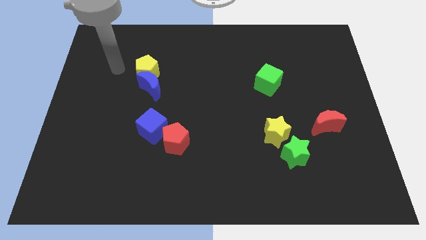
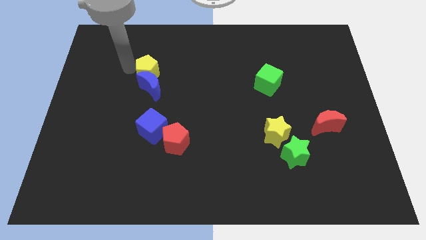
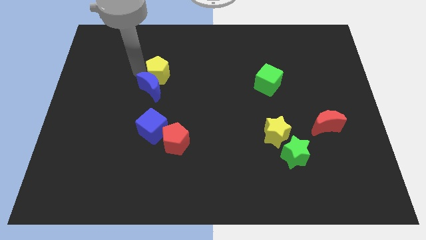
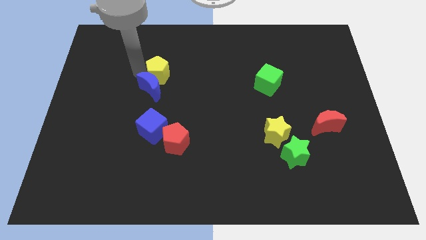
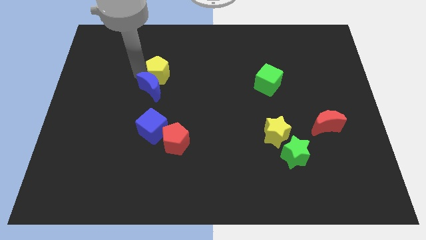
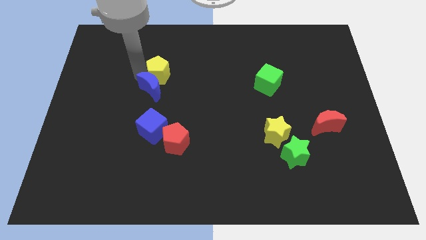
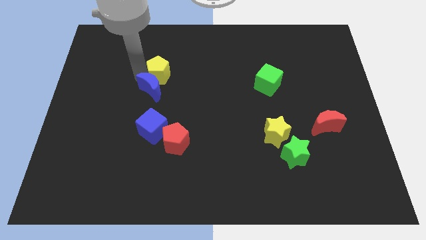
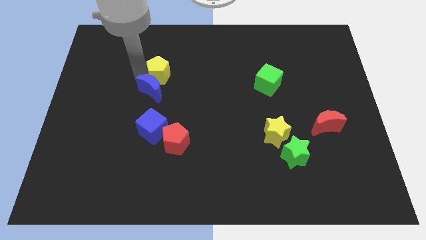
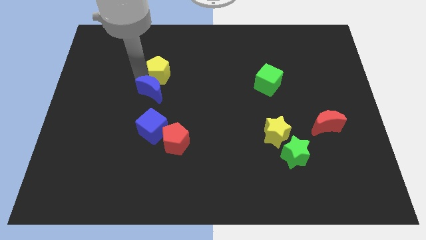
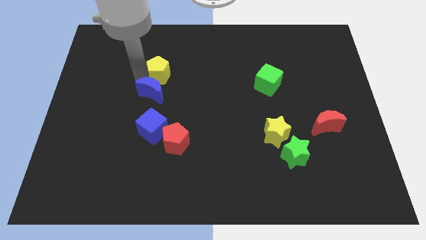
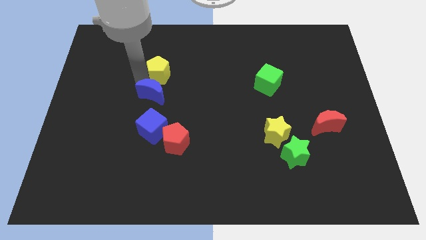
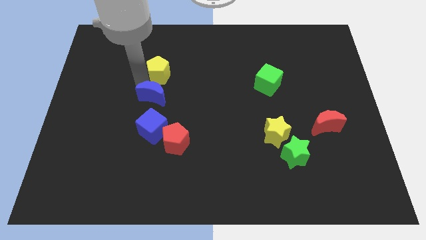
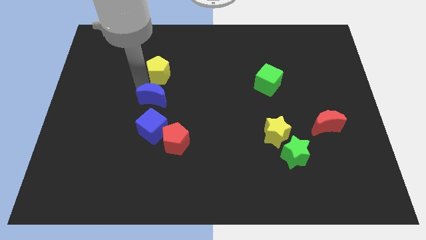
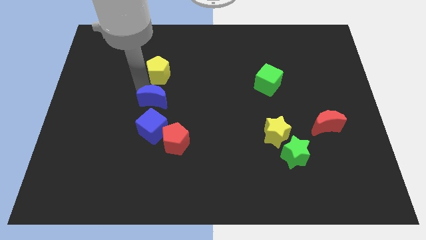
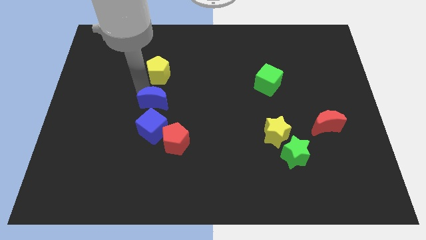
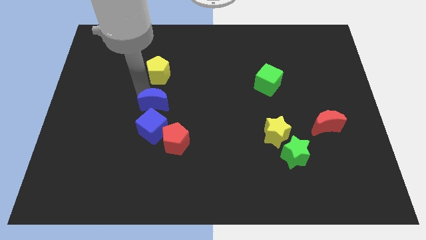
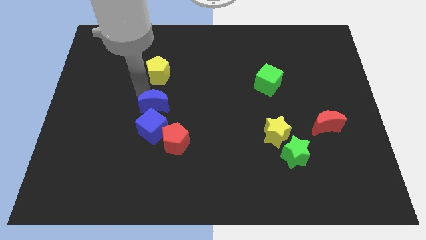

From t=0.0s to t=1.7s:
separate the blue moon from the yellow pentagon

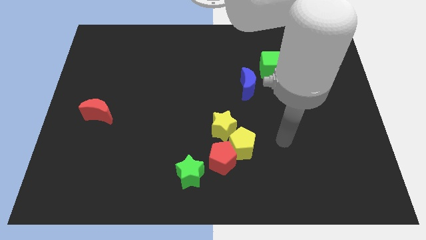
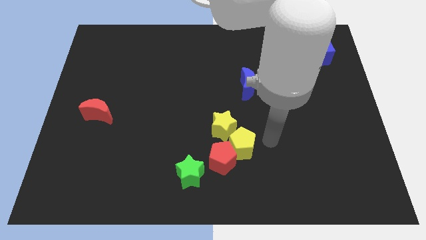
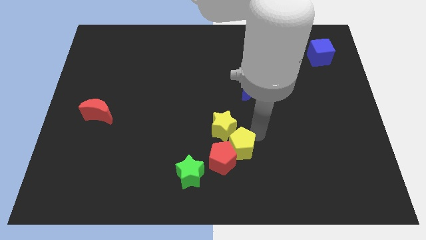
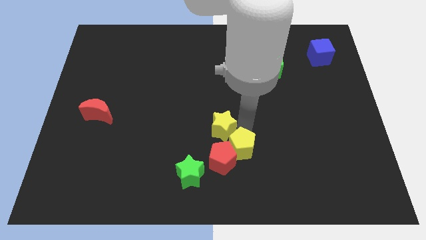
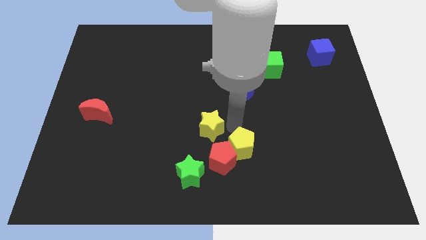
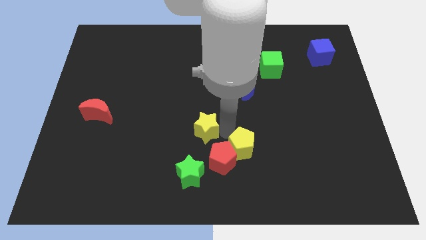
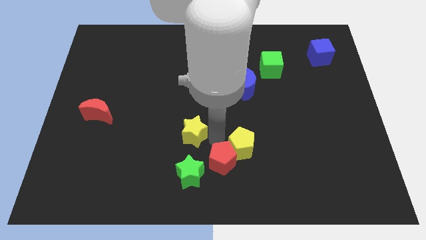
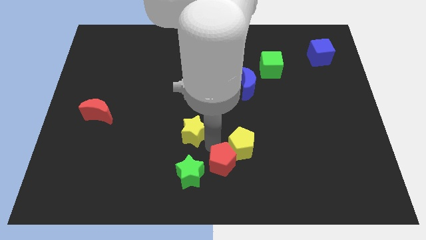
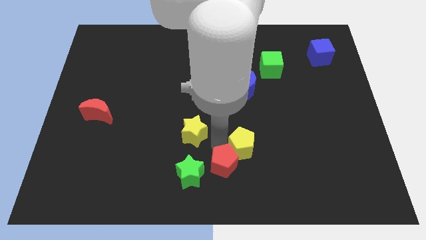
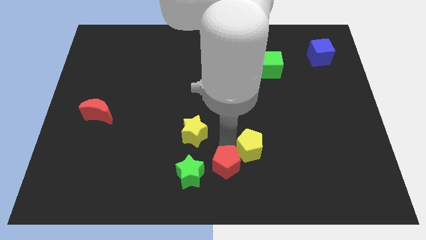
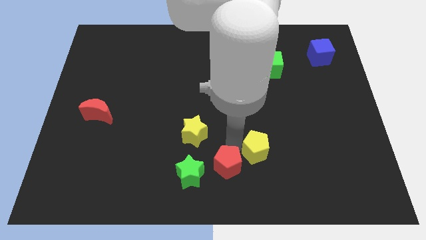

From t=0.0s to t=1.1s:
move the yellow pentagon away from the red pentagon and yellow star

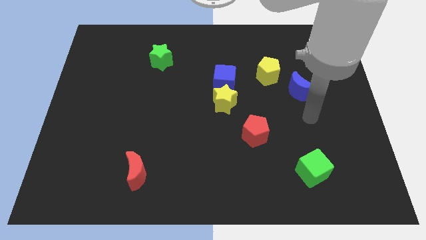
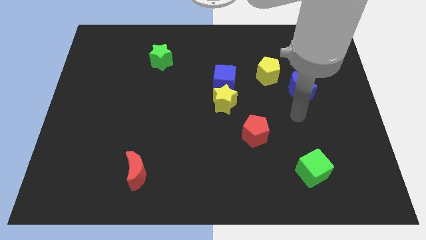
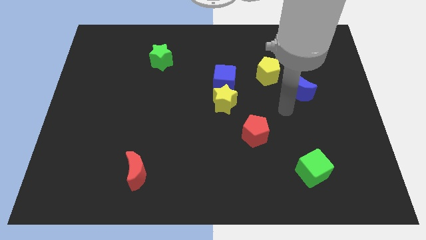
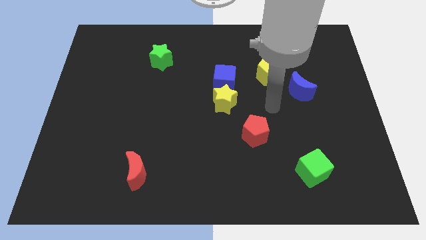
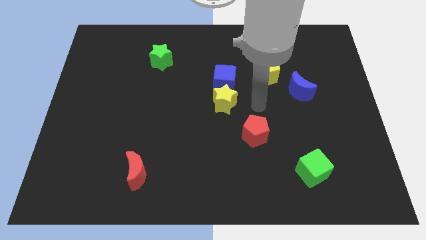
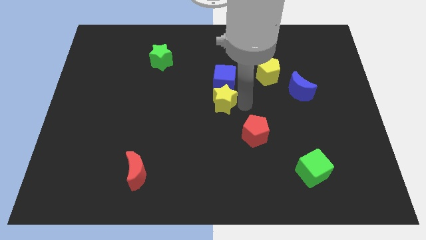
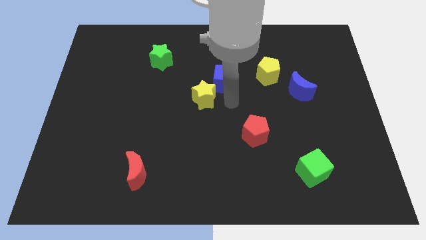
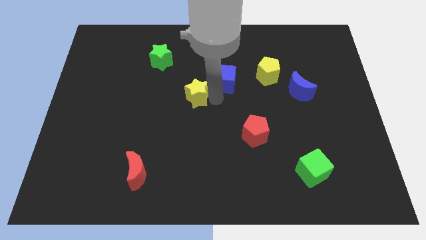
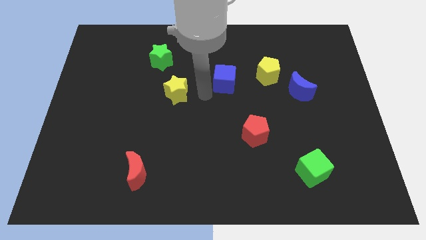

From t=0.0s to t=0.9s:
move the blue cube away from the yellow star

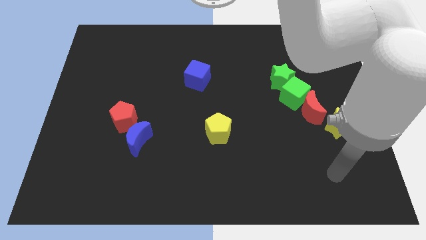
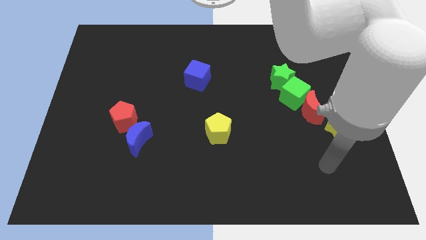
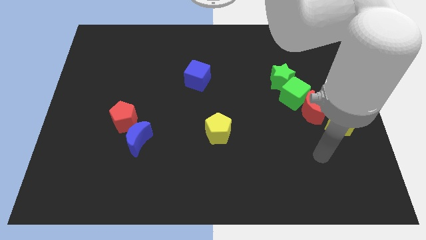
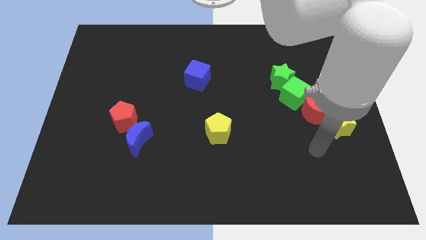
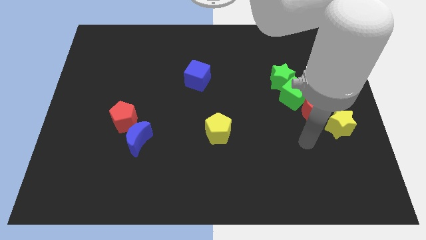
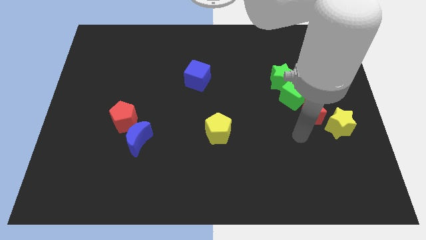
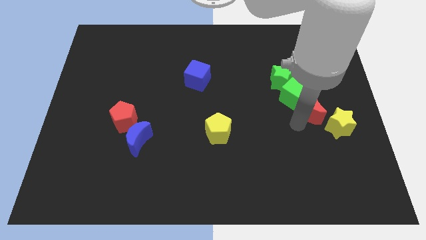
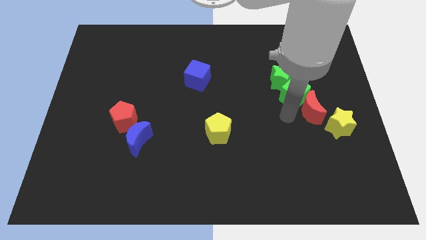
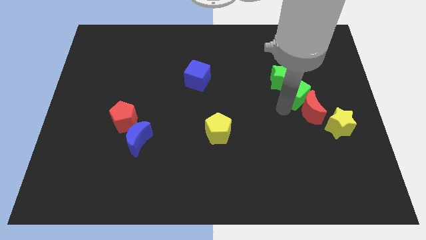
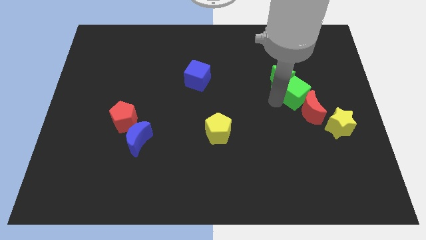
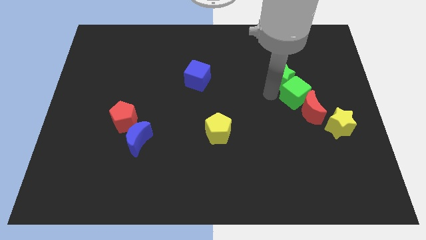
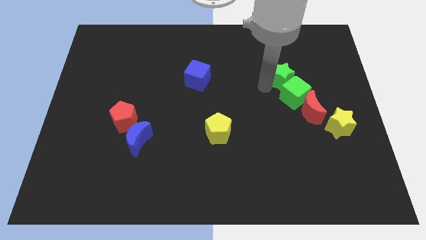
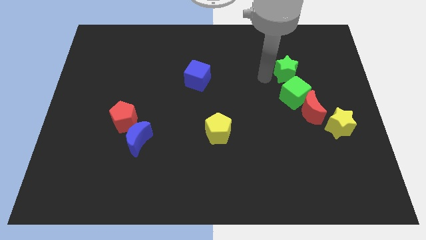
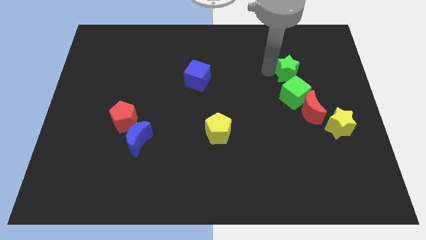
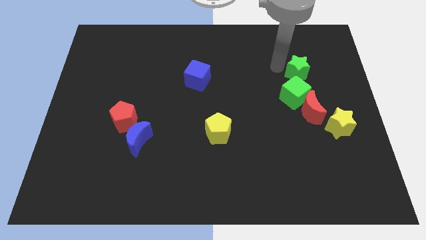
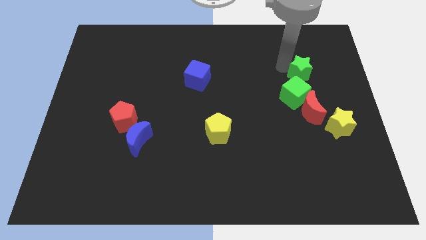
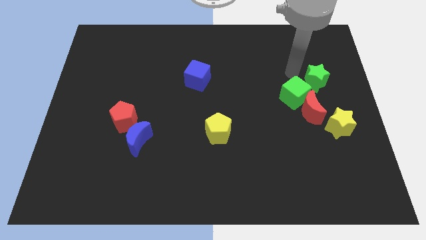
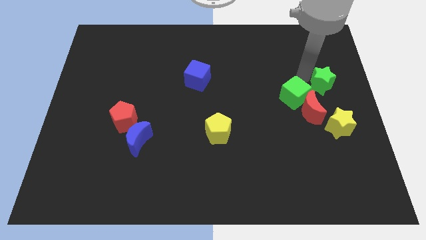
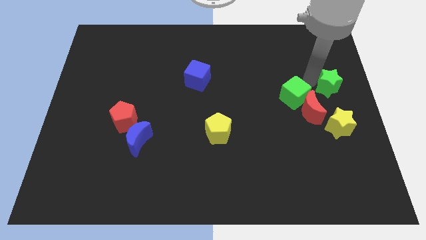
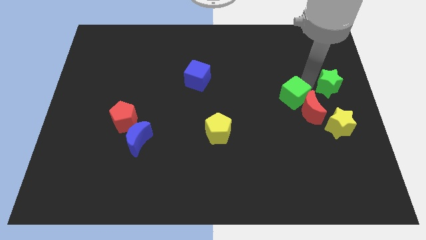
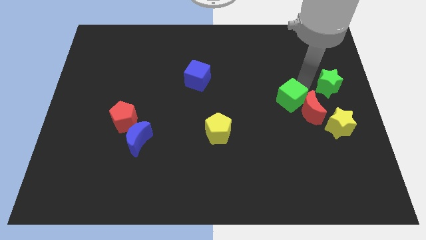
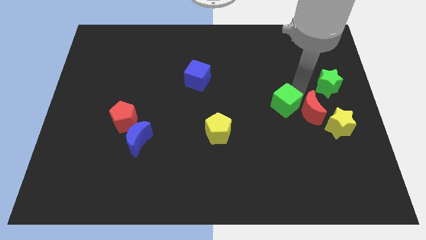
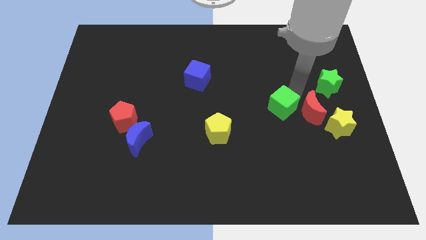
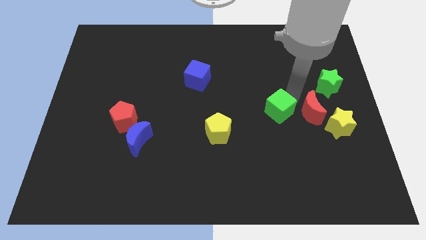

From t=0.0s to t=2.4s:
move the green cube away from the red moon and green star

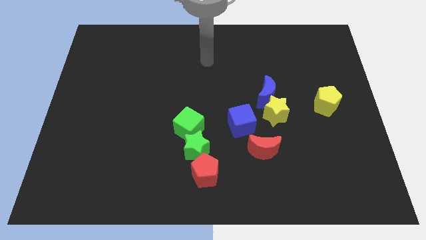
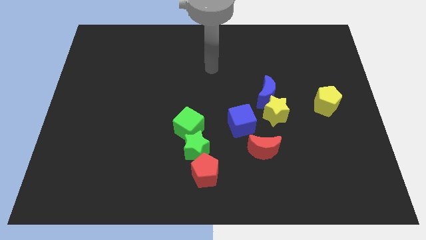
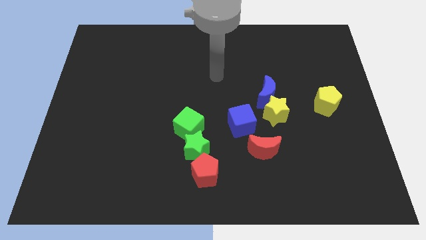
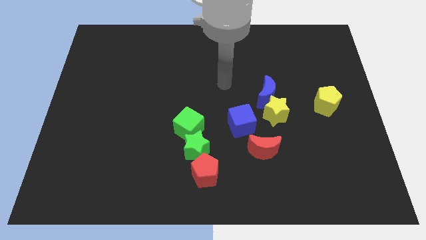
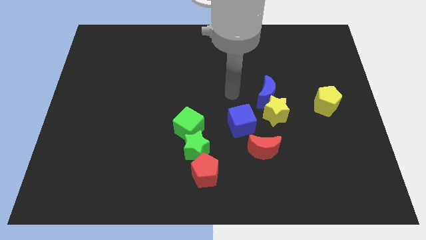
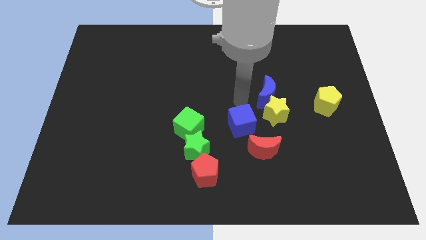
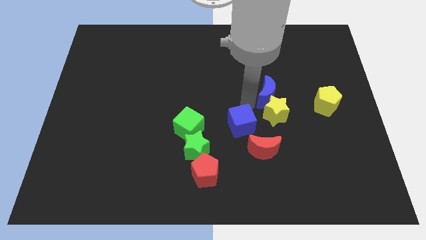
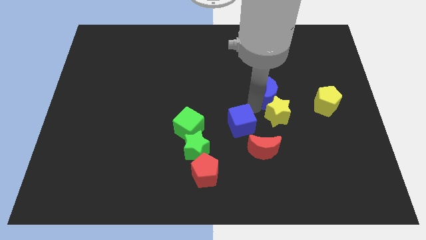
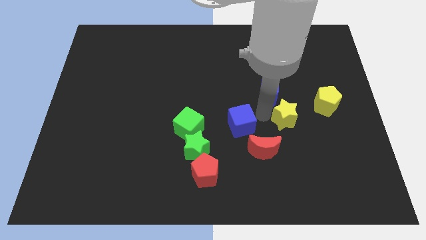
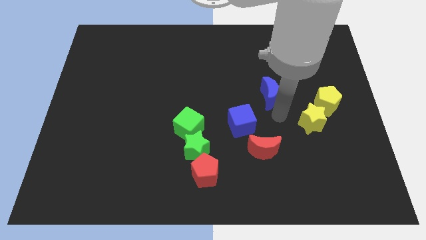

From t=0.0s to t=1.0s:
pull the blue moon apart from the yellow star

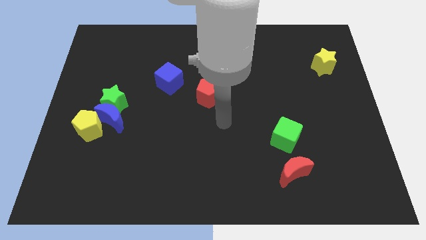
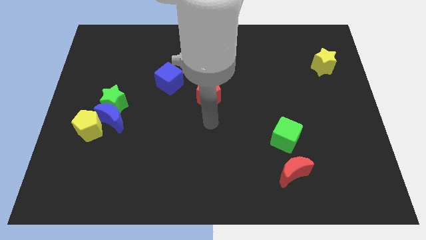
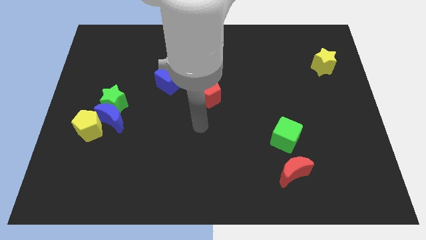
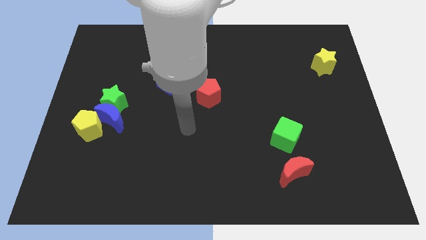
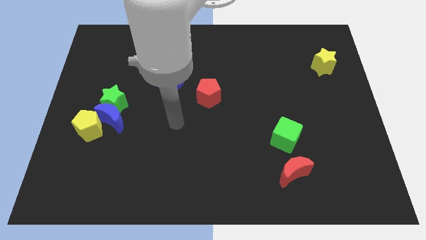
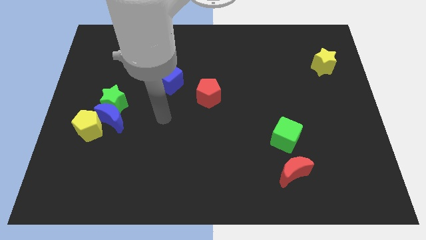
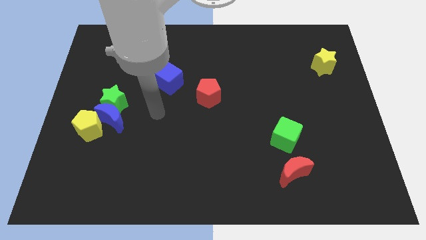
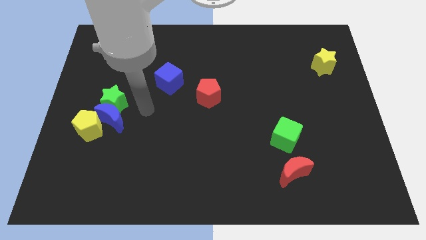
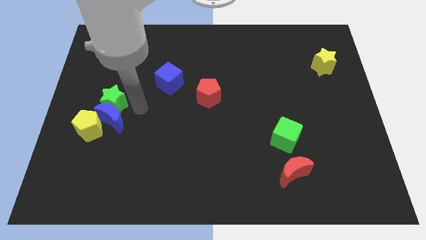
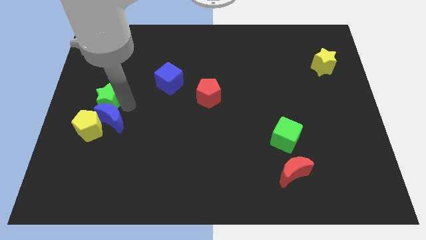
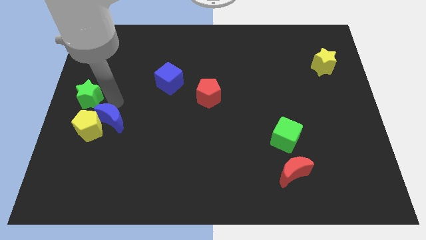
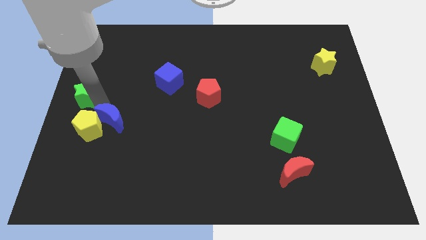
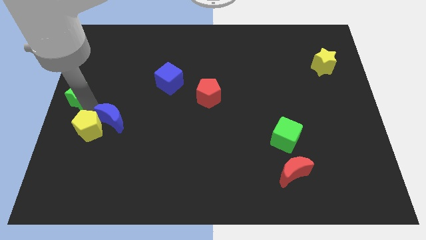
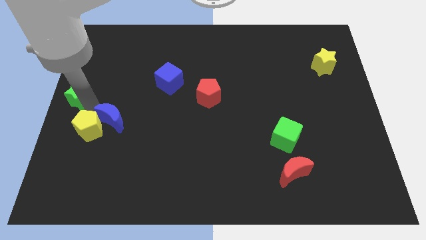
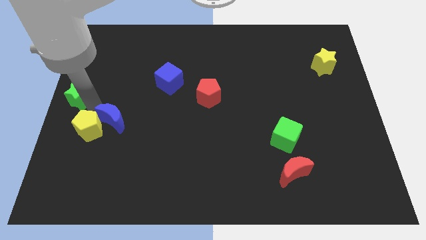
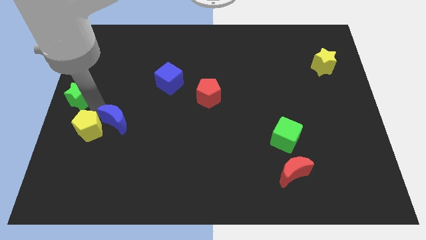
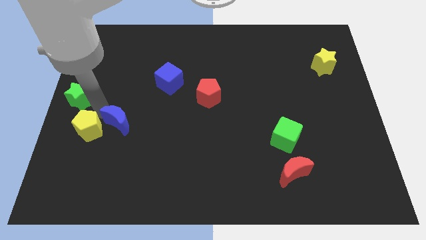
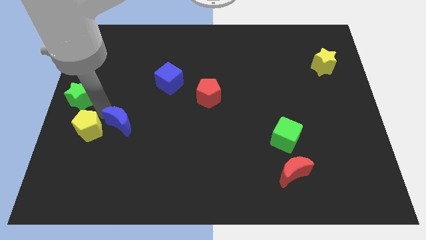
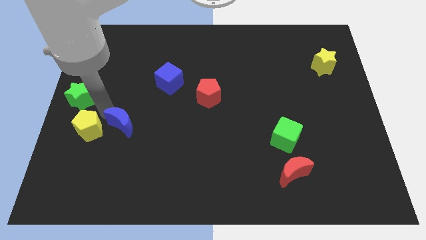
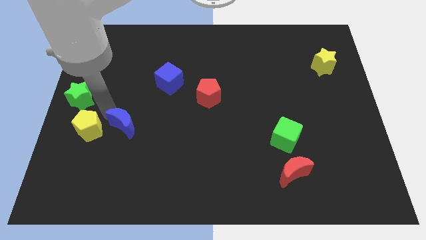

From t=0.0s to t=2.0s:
pull the blue moon apart from the green star and yellow pentagon

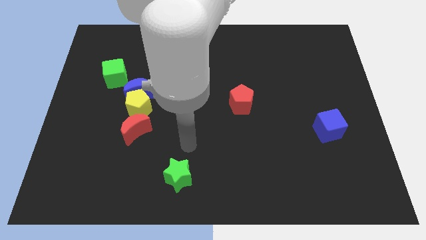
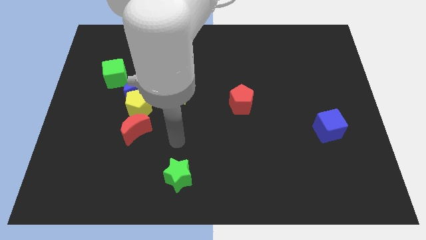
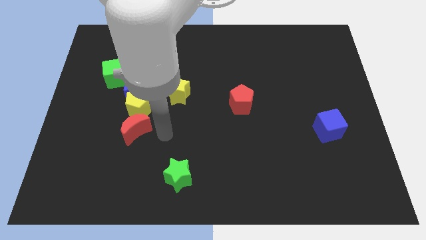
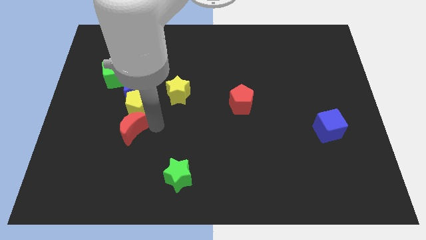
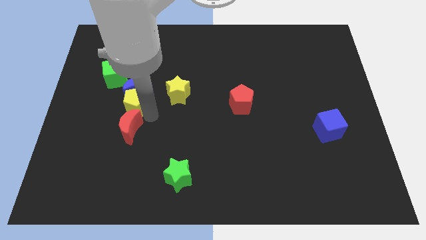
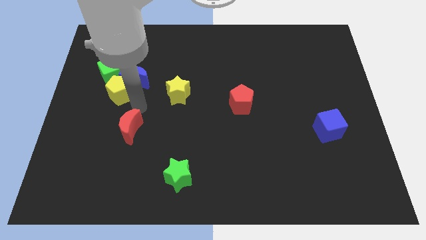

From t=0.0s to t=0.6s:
separate the red moon from the yellow pentagon
